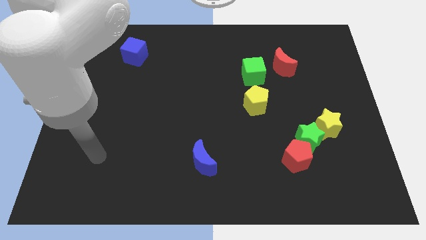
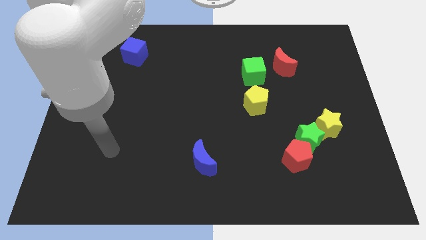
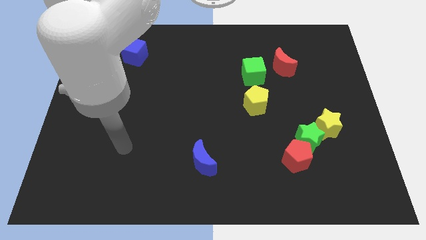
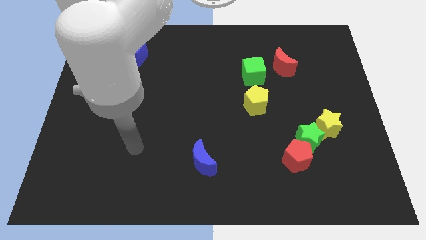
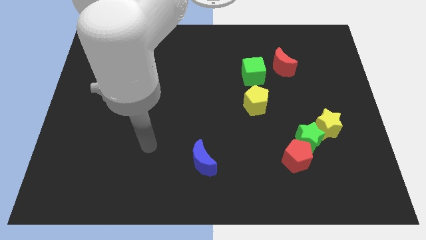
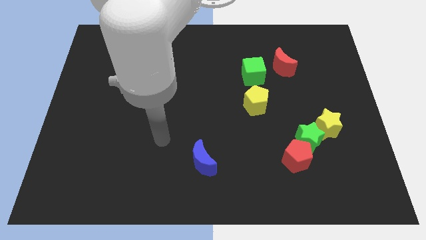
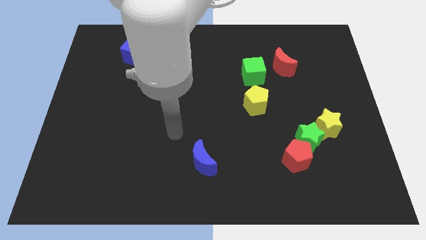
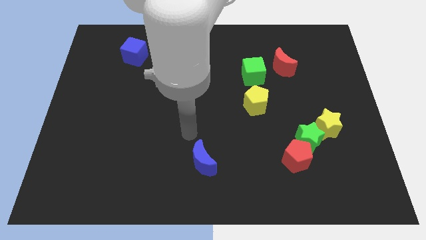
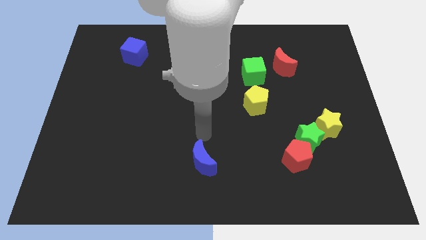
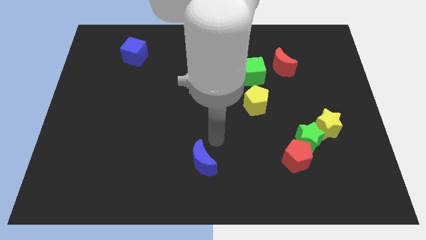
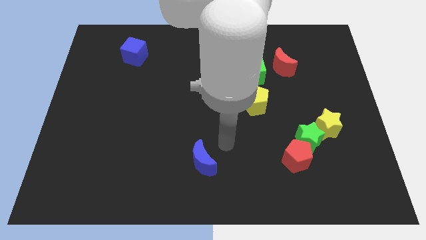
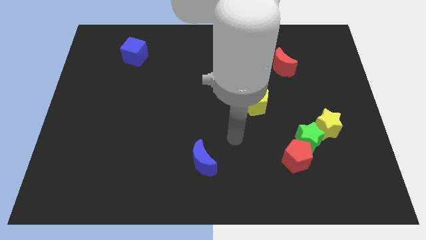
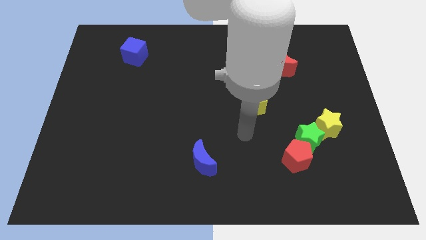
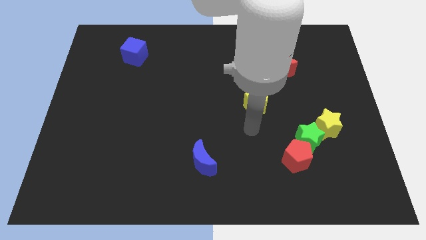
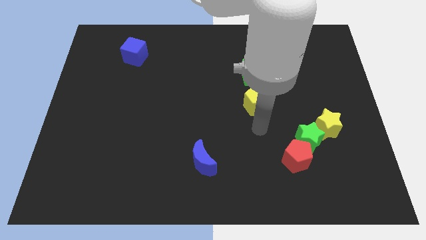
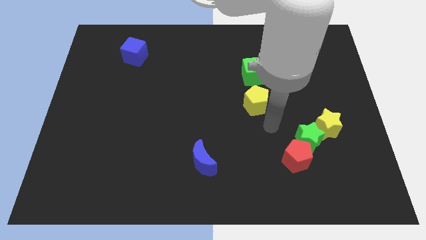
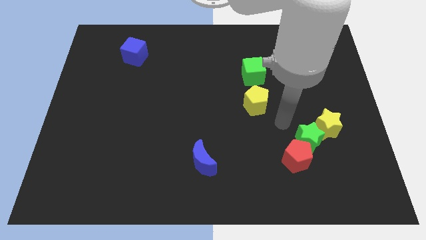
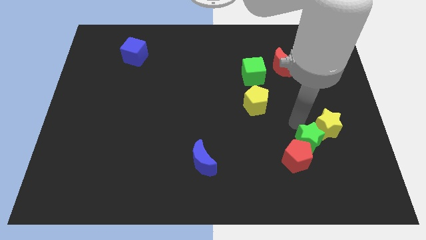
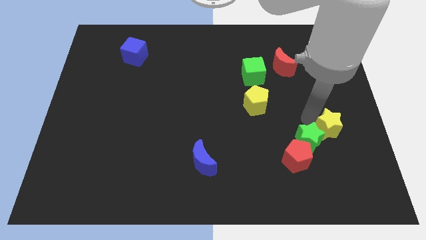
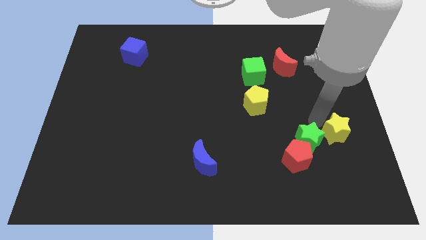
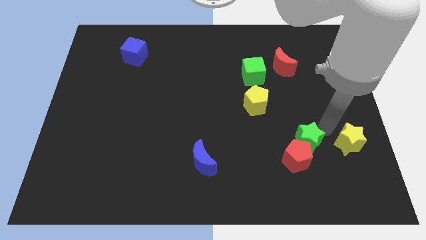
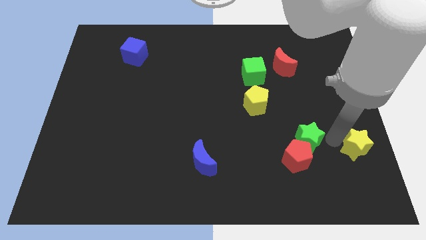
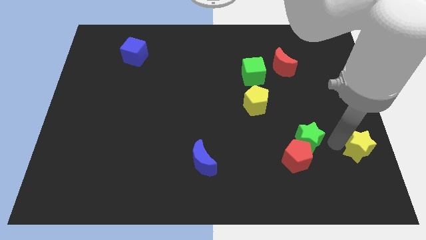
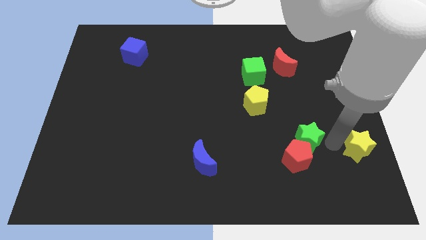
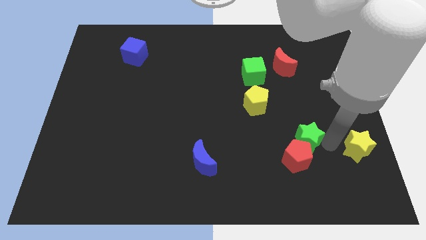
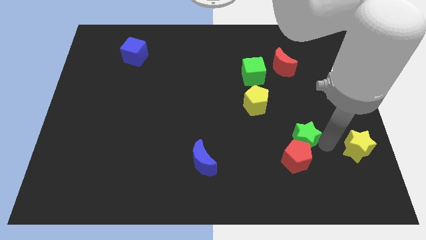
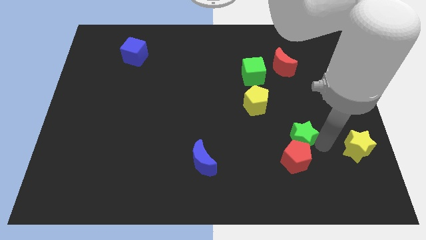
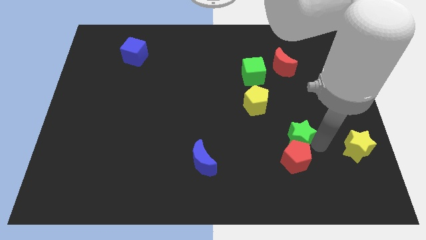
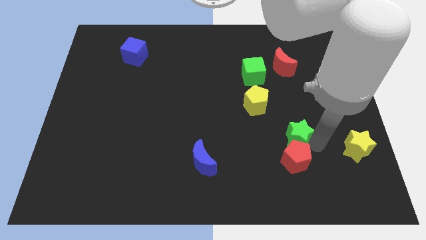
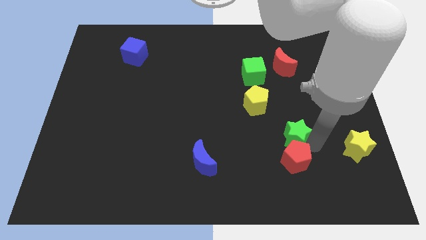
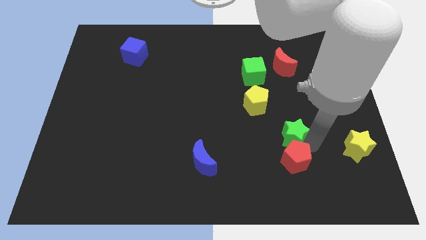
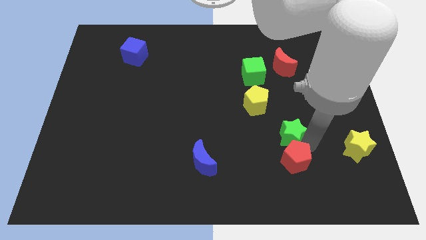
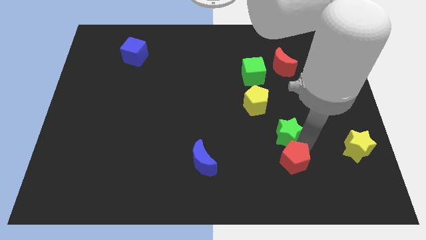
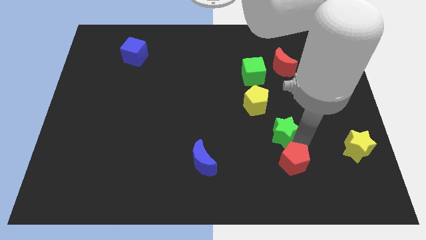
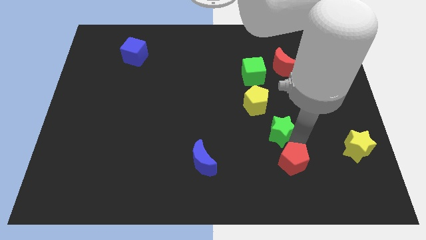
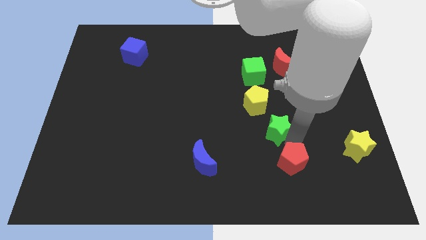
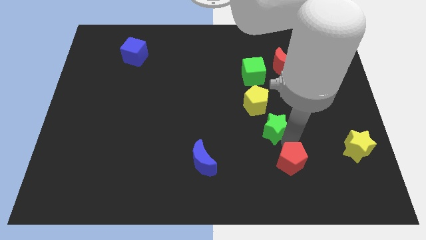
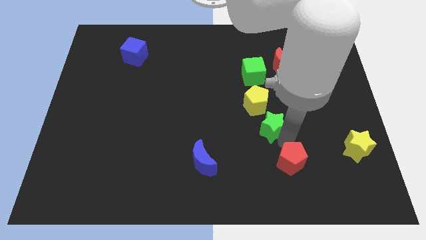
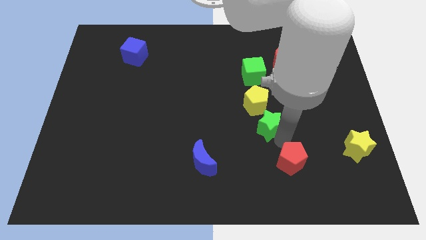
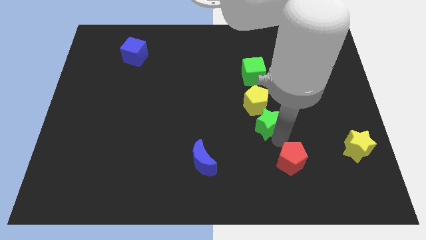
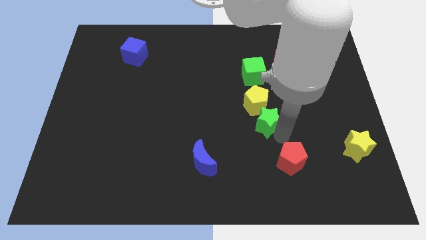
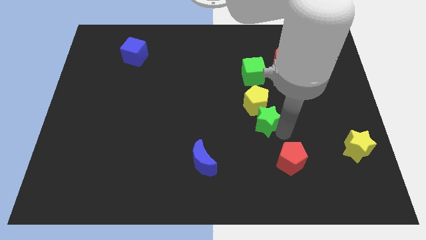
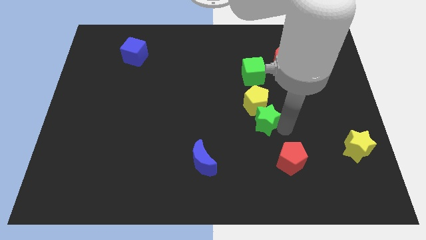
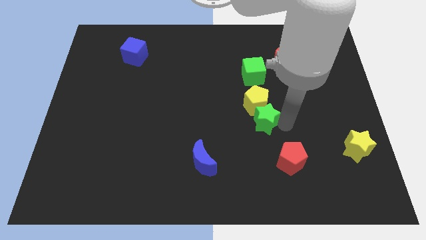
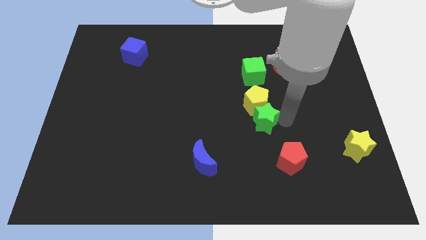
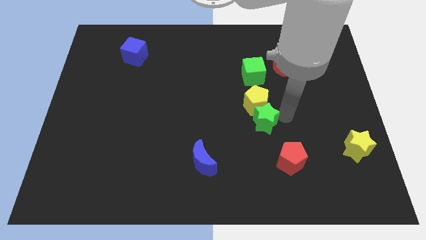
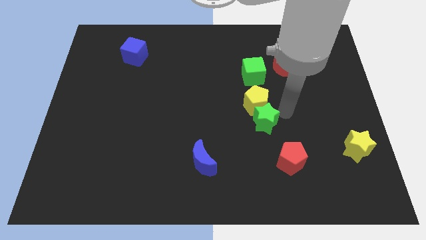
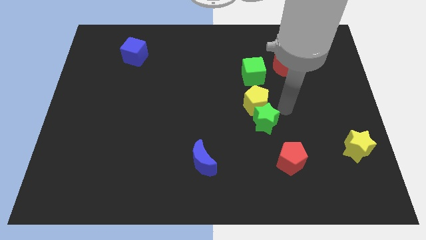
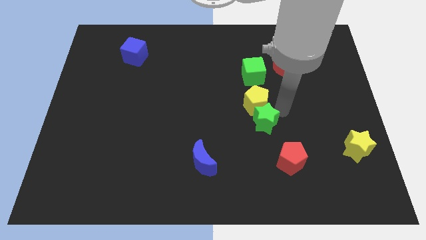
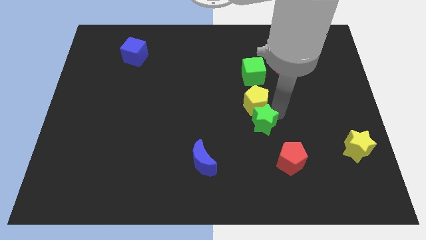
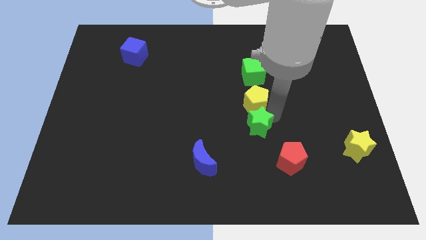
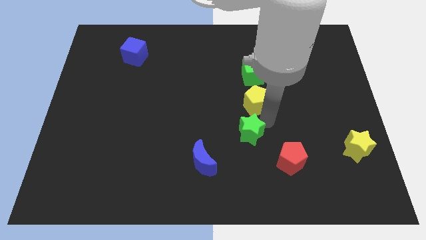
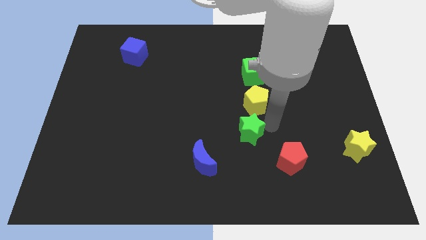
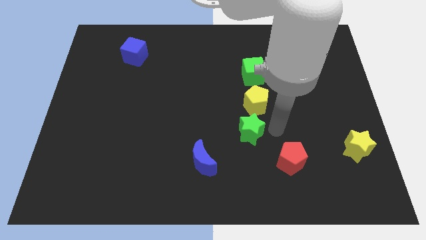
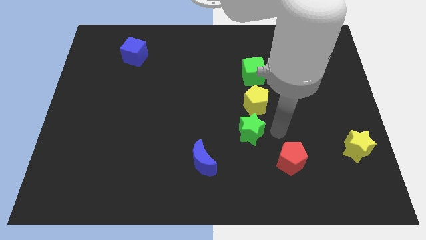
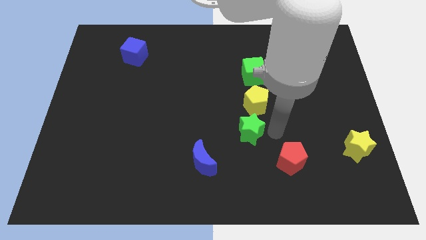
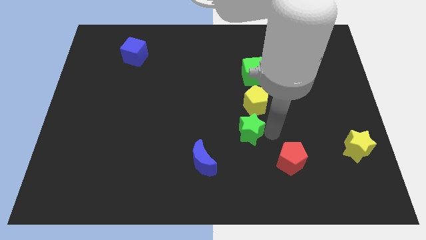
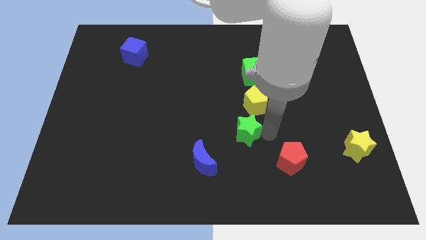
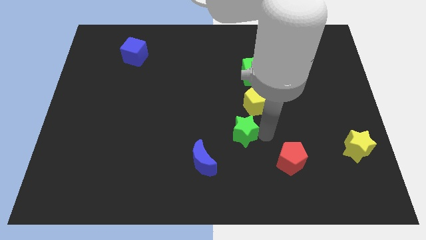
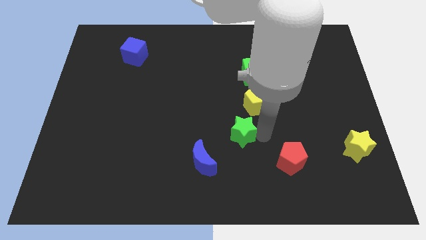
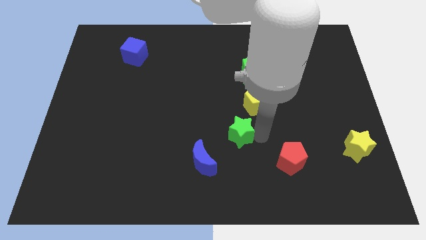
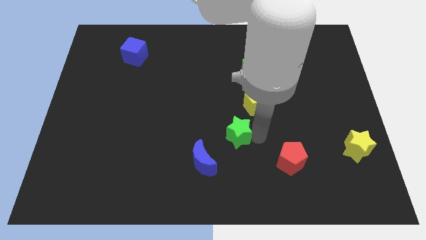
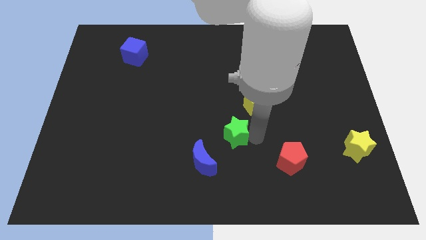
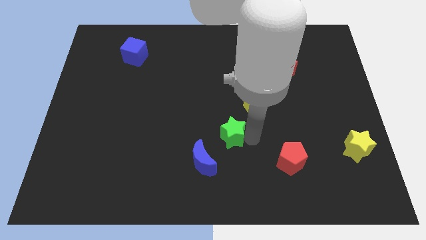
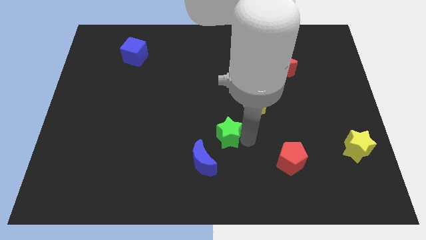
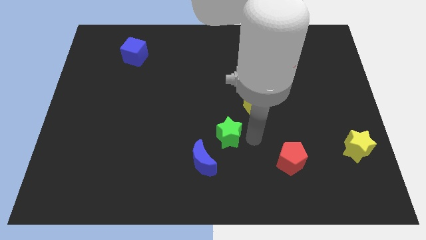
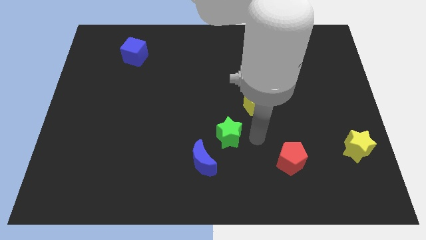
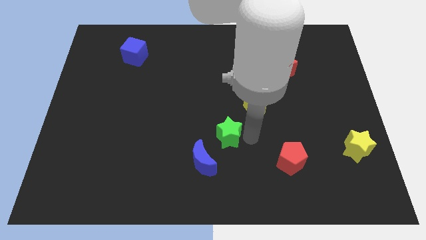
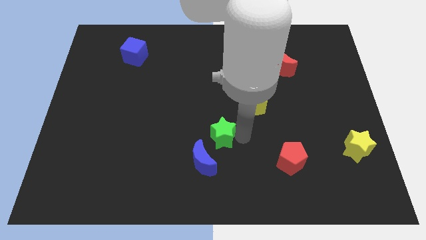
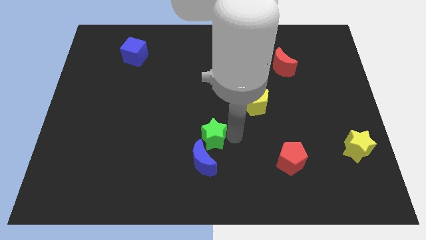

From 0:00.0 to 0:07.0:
move the green star left

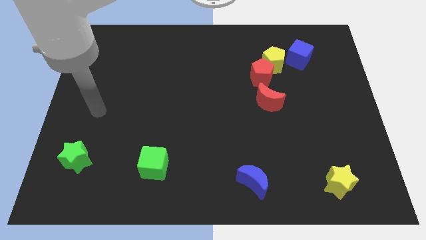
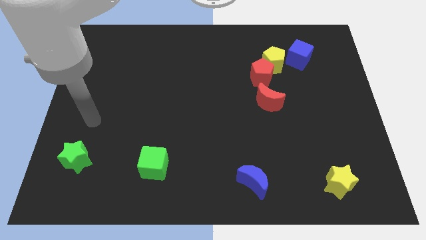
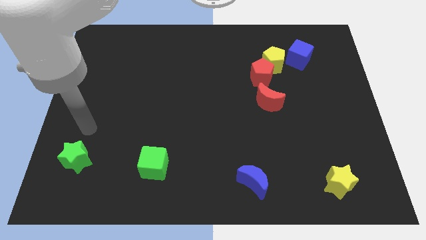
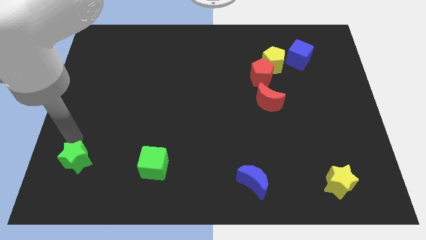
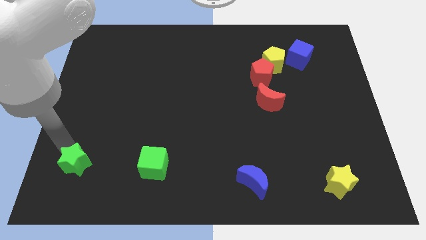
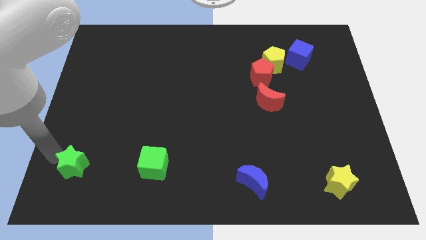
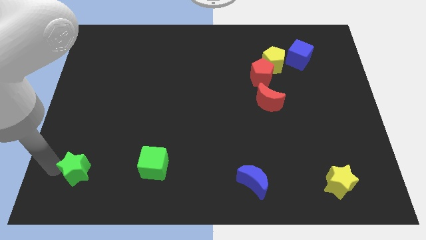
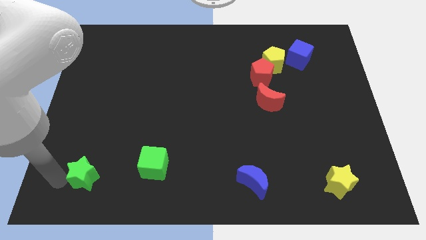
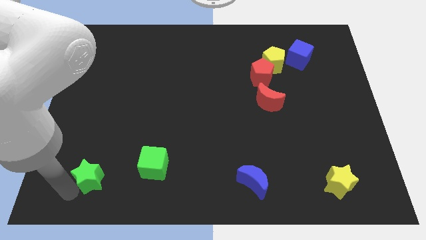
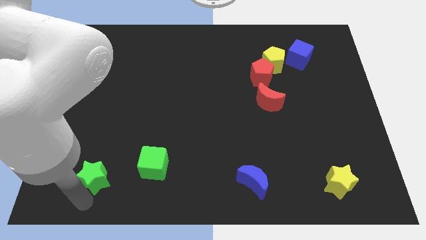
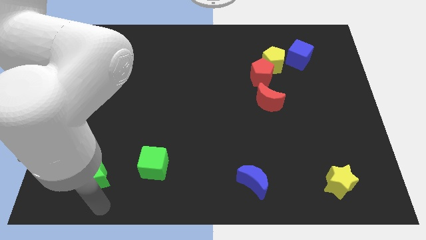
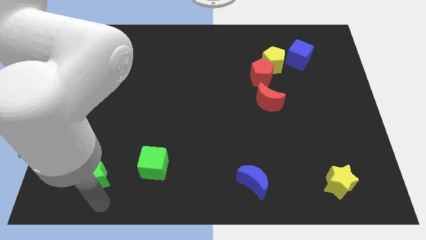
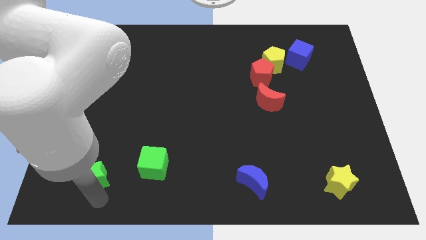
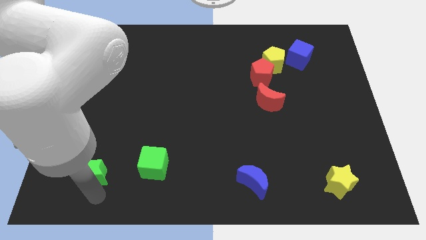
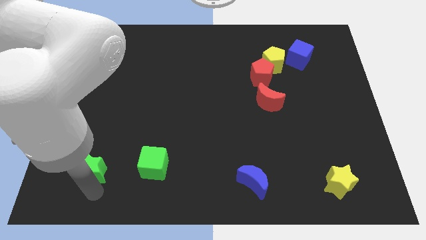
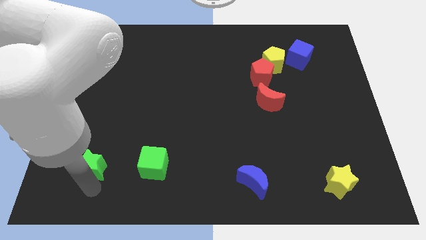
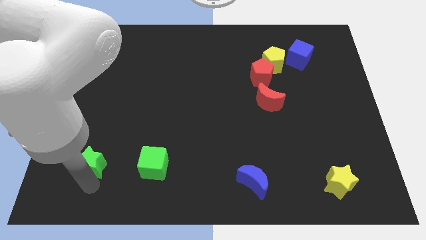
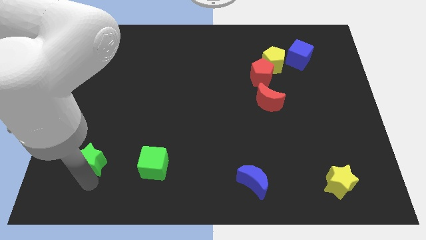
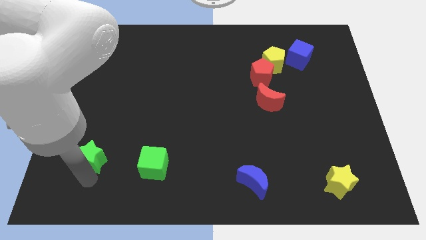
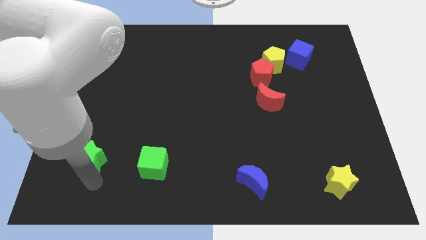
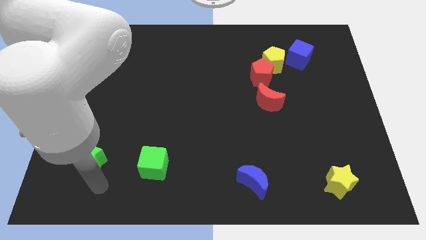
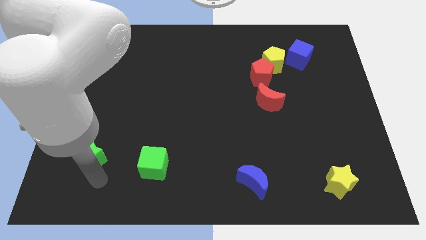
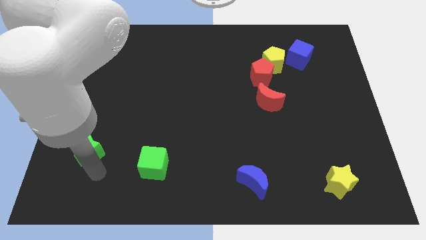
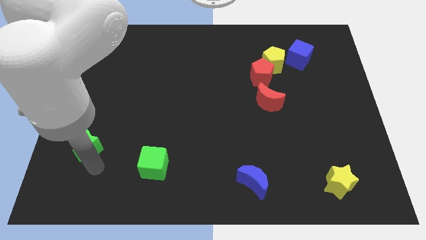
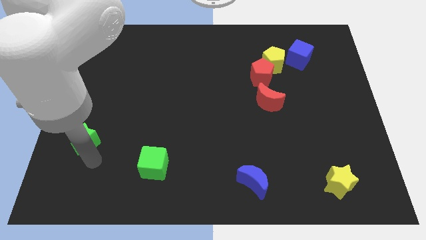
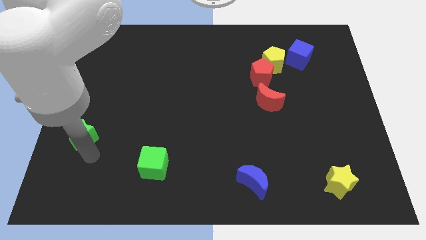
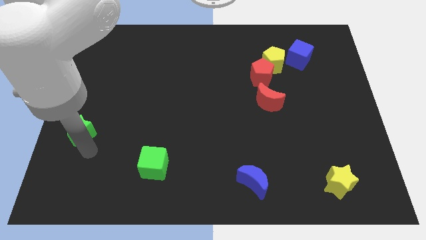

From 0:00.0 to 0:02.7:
slightly push the green star up
